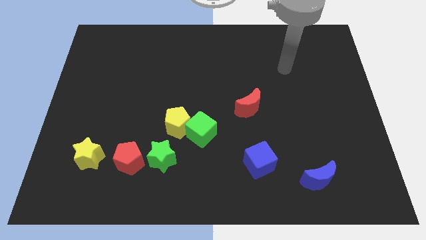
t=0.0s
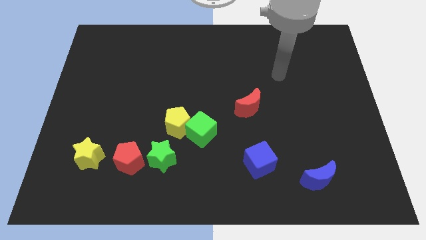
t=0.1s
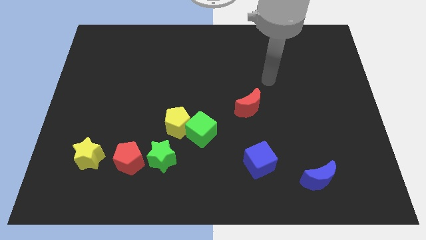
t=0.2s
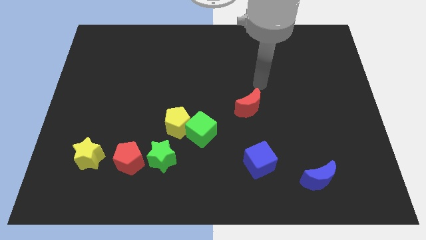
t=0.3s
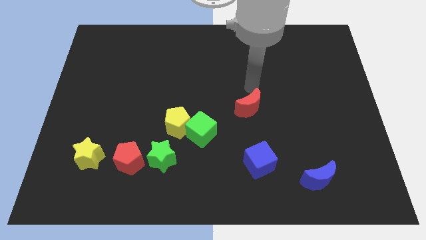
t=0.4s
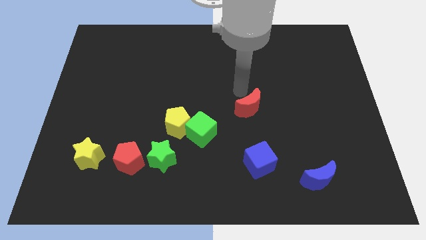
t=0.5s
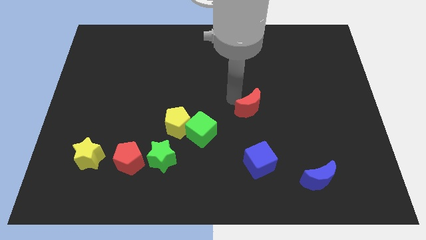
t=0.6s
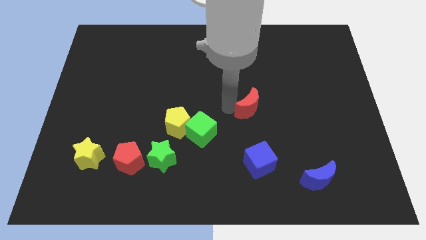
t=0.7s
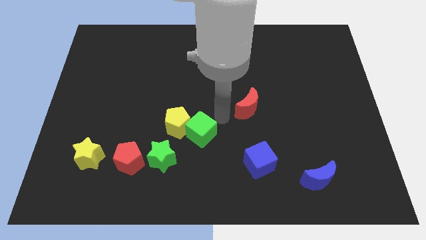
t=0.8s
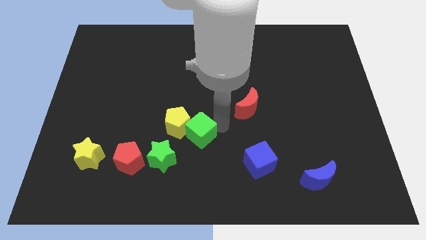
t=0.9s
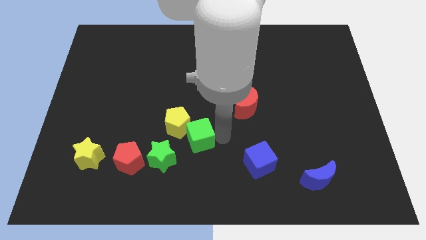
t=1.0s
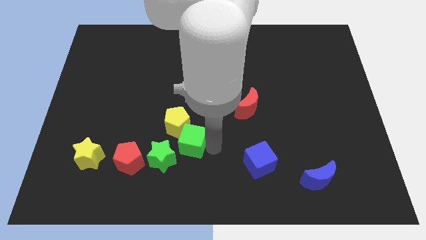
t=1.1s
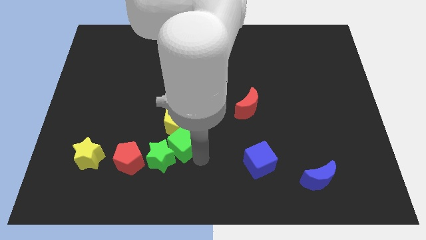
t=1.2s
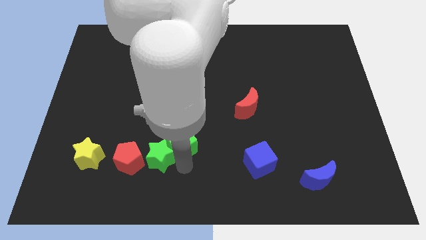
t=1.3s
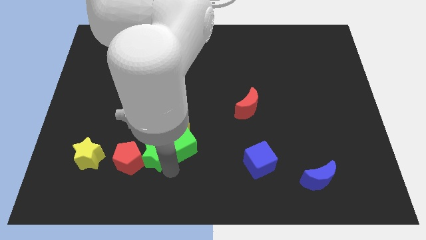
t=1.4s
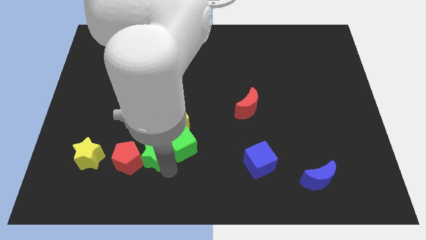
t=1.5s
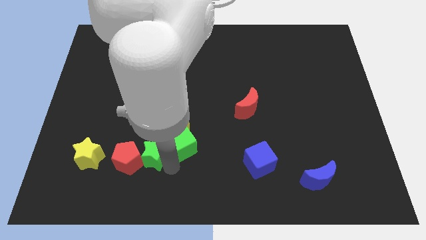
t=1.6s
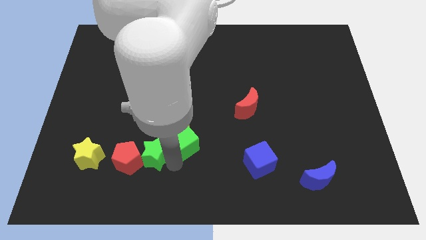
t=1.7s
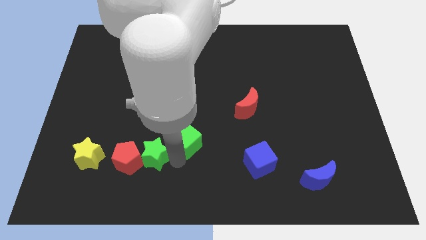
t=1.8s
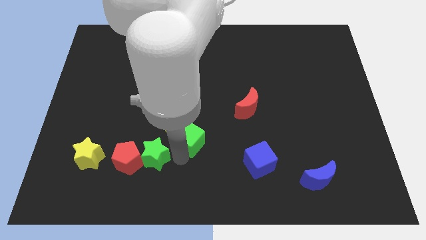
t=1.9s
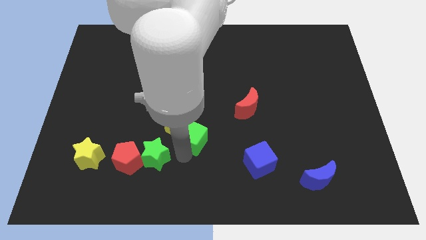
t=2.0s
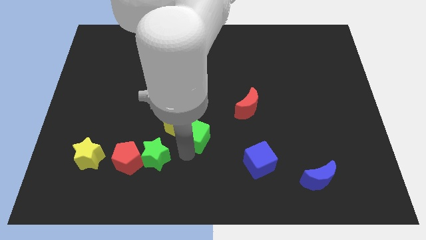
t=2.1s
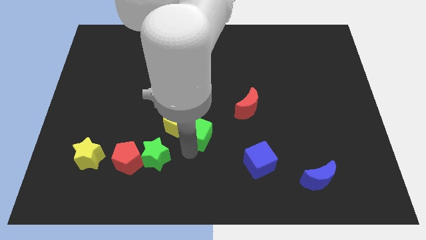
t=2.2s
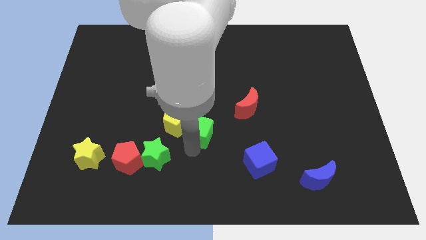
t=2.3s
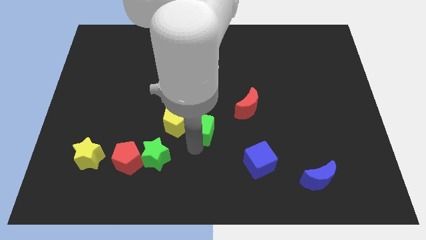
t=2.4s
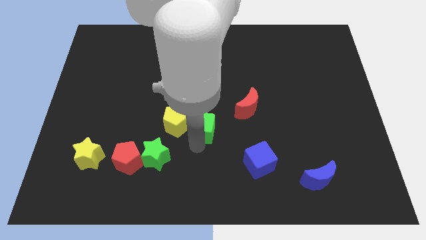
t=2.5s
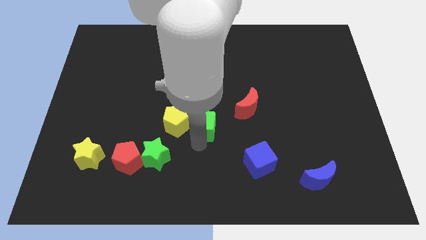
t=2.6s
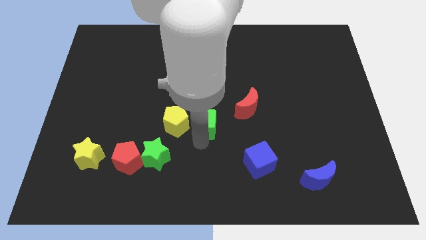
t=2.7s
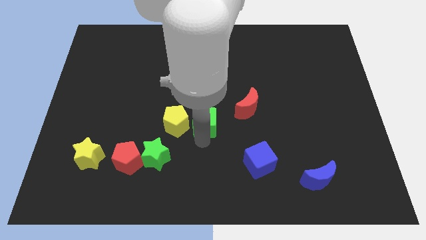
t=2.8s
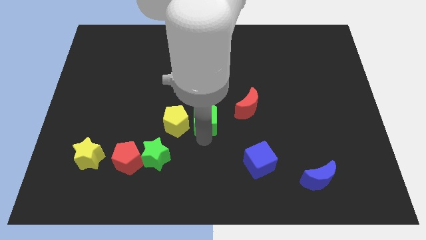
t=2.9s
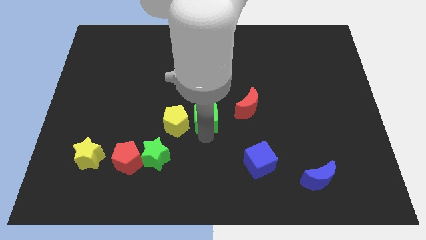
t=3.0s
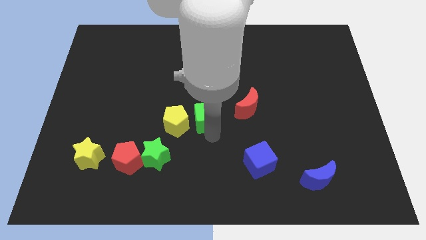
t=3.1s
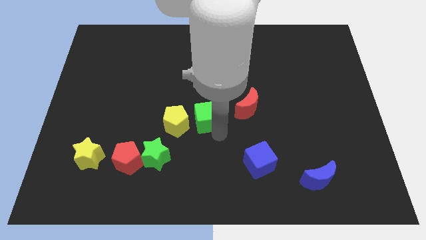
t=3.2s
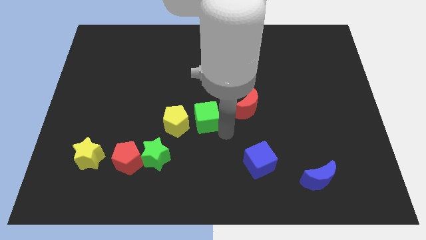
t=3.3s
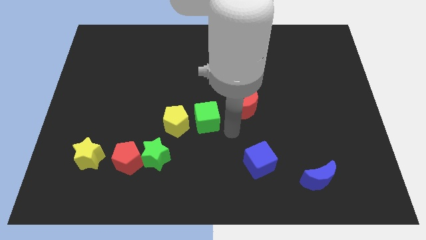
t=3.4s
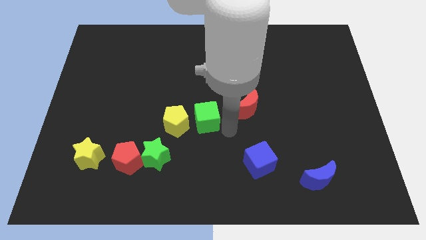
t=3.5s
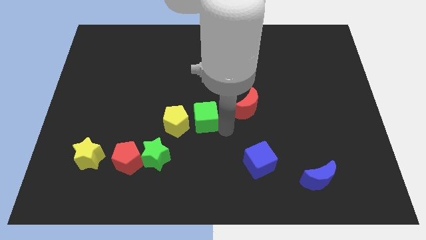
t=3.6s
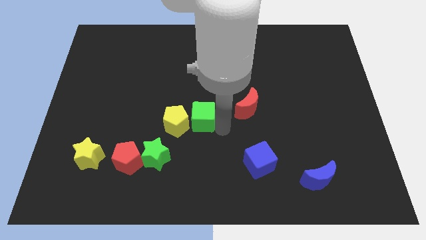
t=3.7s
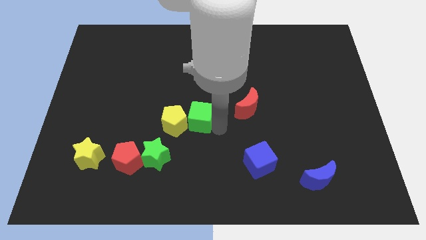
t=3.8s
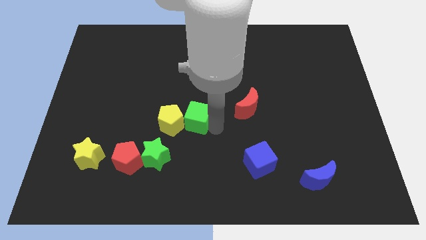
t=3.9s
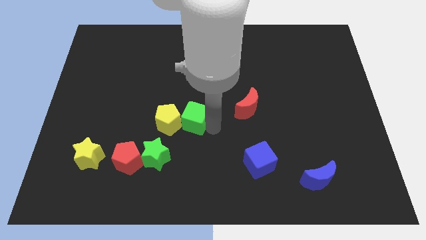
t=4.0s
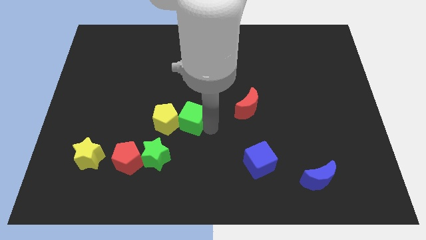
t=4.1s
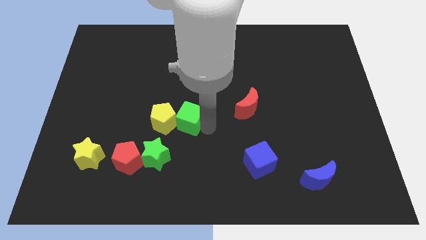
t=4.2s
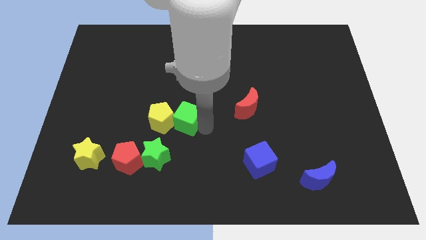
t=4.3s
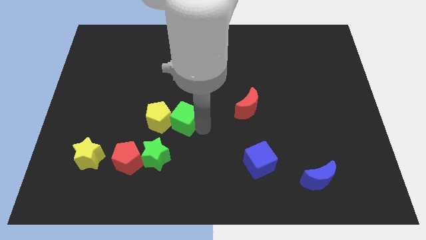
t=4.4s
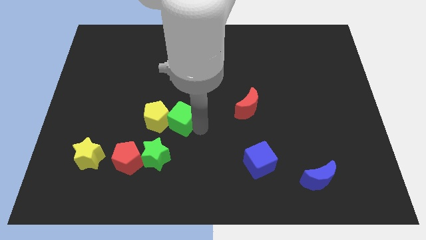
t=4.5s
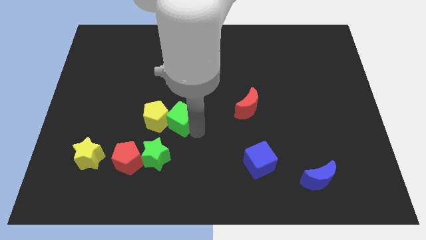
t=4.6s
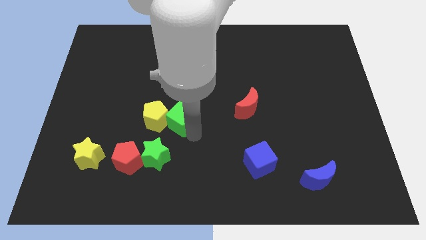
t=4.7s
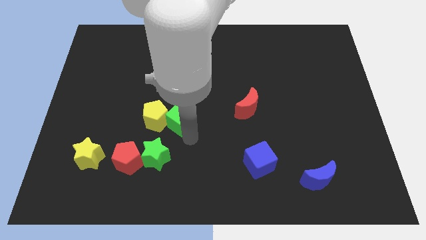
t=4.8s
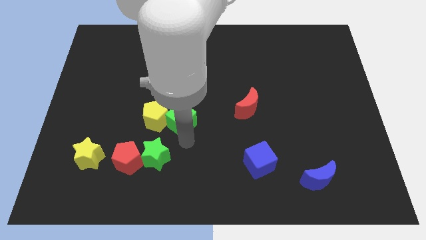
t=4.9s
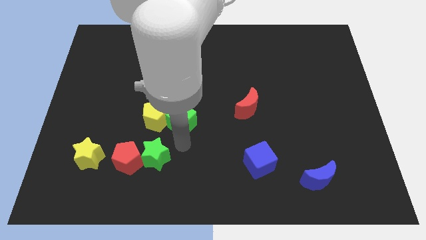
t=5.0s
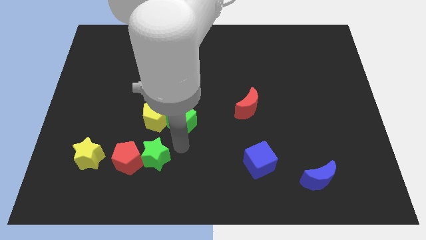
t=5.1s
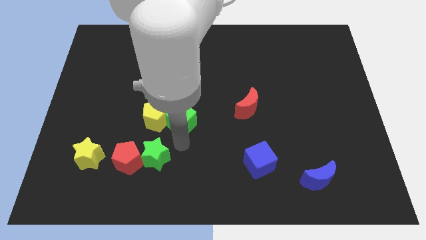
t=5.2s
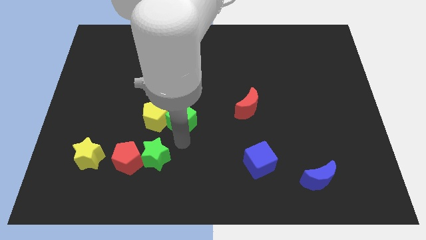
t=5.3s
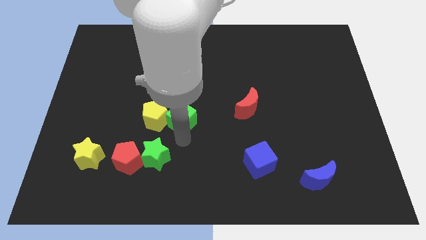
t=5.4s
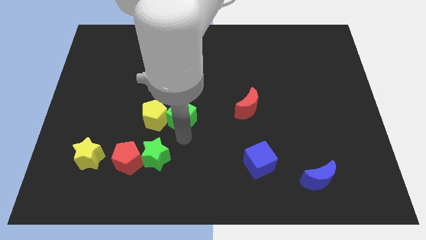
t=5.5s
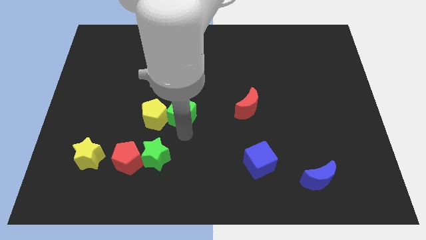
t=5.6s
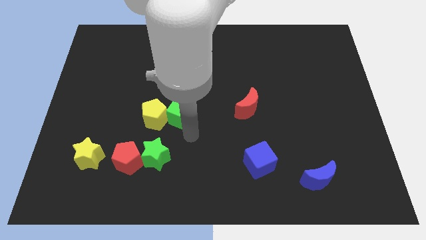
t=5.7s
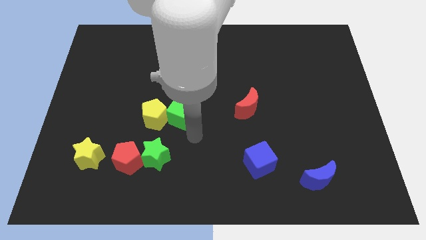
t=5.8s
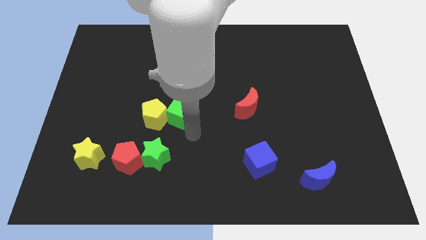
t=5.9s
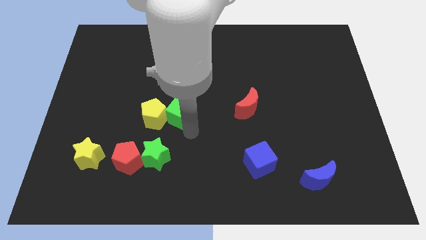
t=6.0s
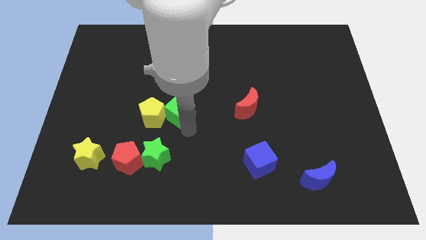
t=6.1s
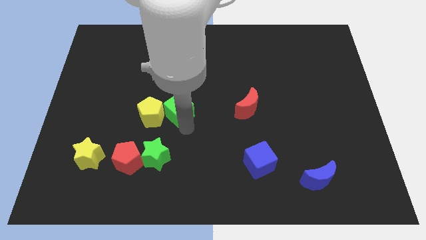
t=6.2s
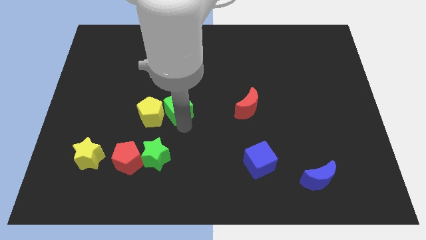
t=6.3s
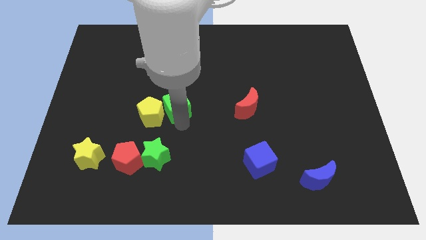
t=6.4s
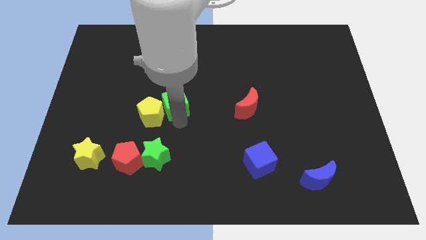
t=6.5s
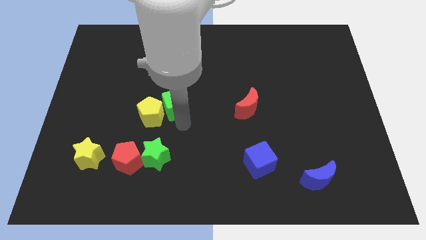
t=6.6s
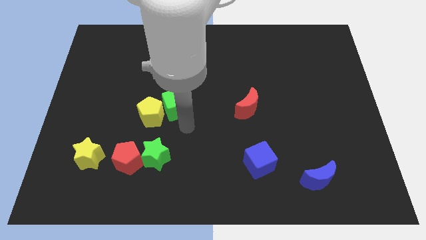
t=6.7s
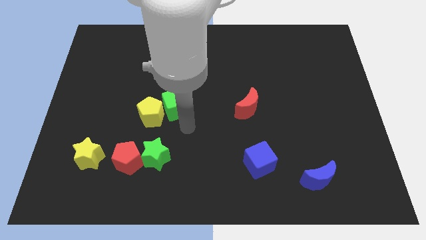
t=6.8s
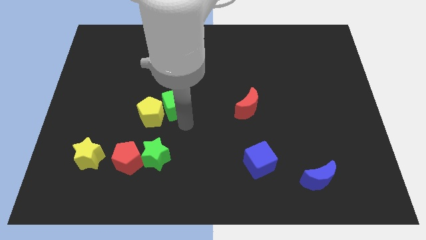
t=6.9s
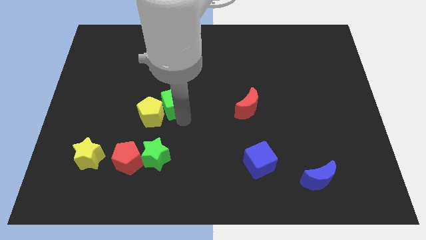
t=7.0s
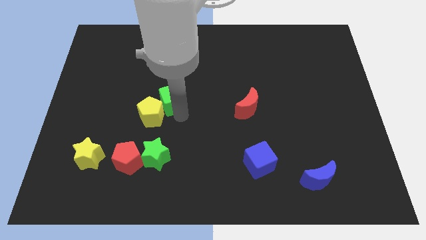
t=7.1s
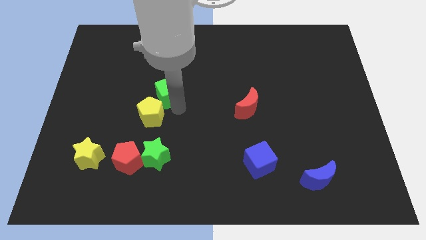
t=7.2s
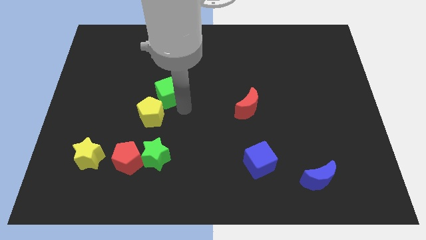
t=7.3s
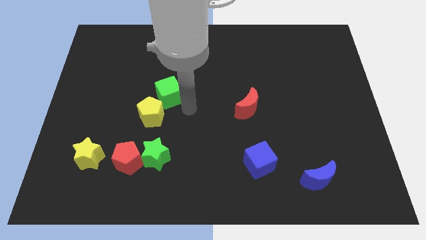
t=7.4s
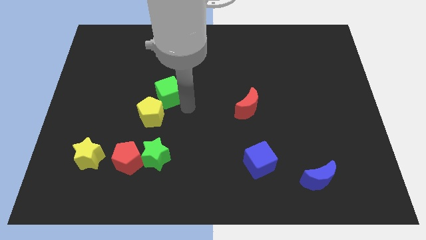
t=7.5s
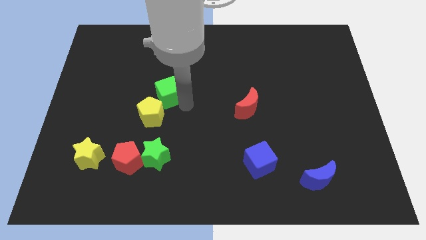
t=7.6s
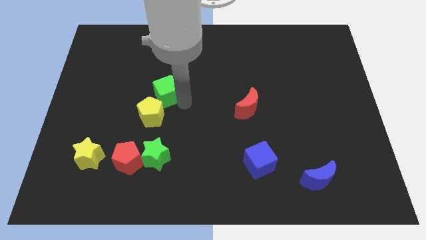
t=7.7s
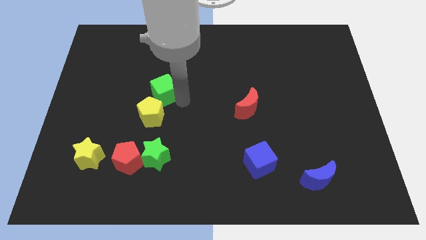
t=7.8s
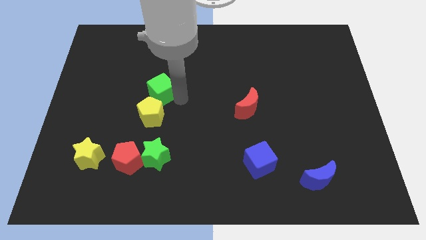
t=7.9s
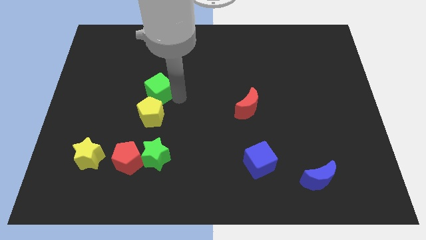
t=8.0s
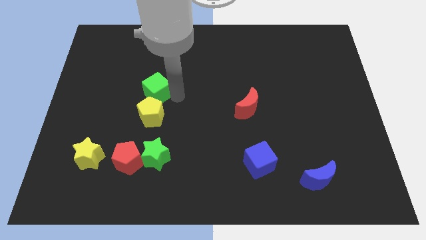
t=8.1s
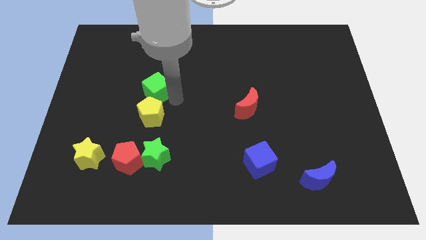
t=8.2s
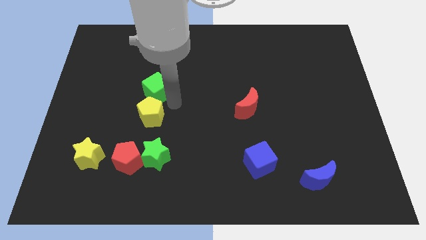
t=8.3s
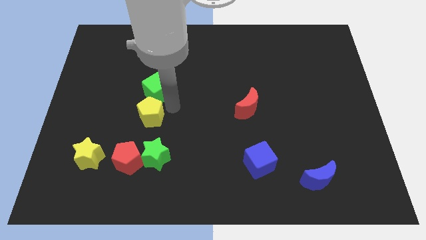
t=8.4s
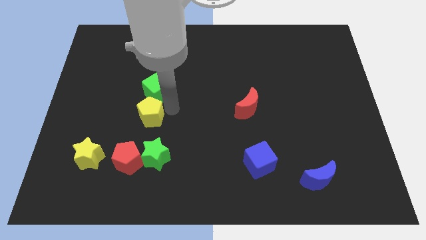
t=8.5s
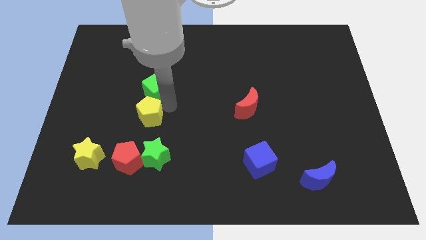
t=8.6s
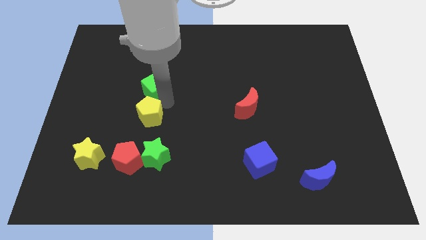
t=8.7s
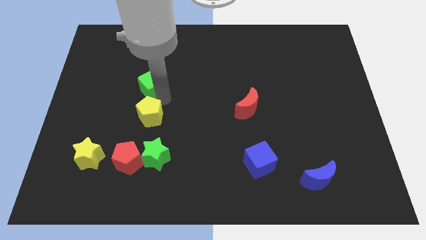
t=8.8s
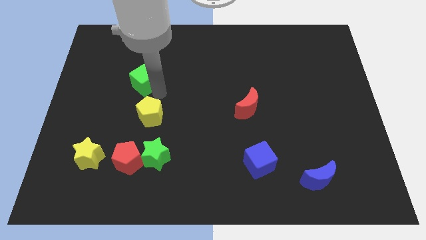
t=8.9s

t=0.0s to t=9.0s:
push the green cube upwards and then to the left
